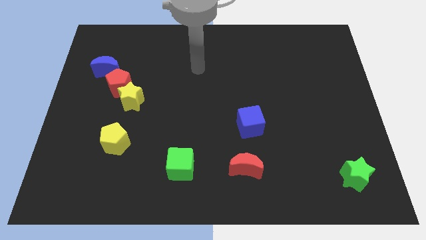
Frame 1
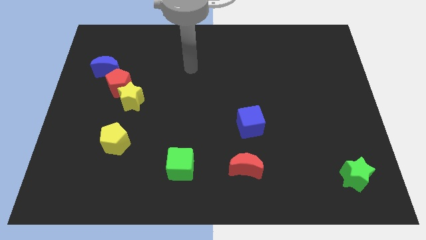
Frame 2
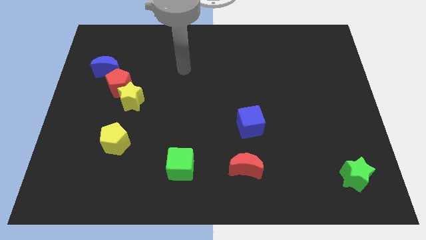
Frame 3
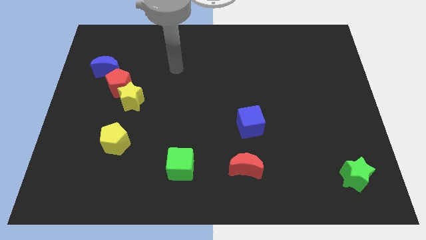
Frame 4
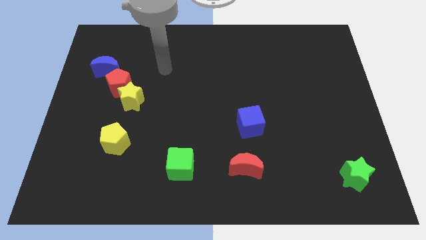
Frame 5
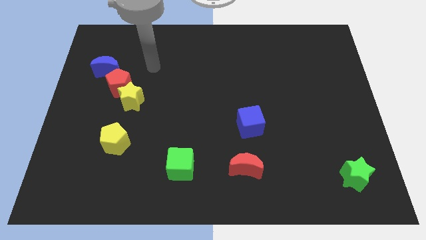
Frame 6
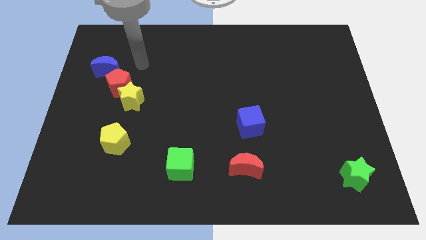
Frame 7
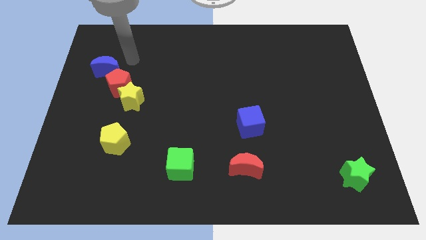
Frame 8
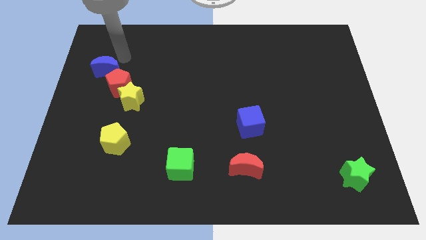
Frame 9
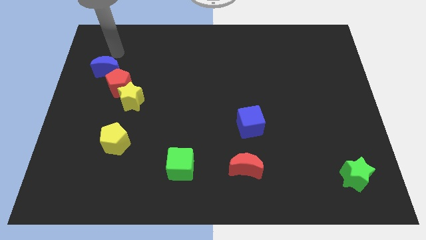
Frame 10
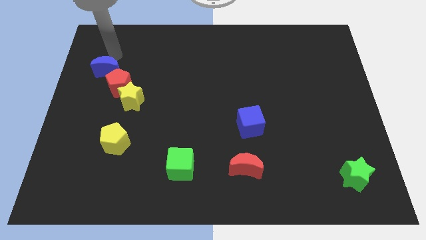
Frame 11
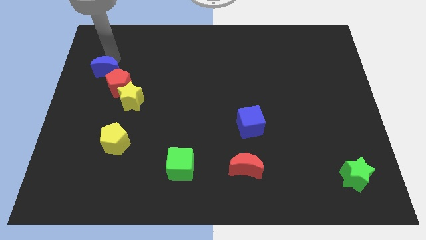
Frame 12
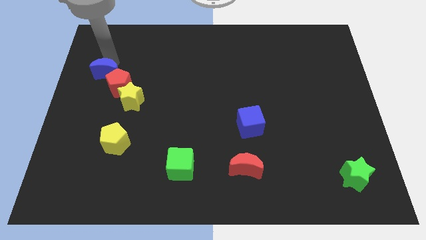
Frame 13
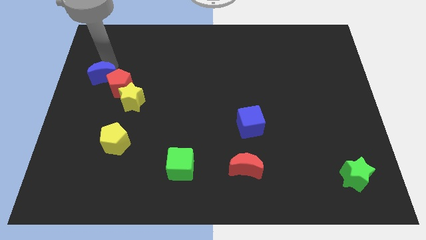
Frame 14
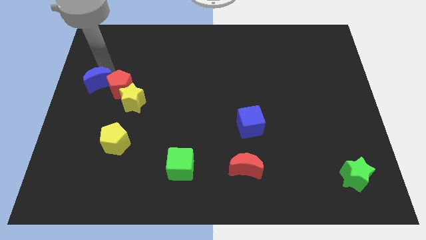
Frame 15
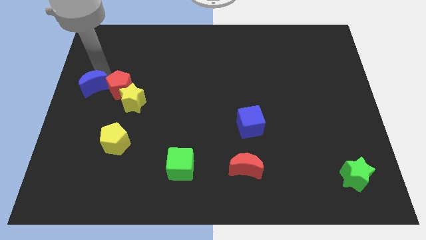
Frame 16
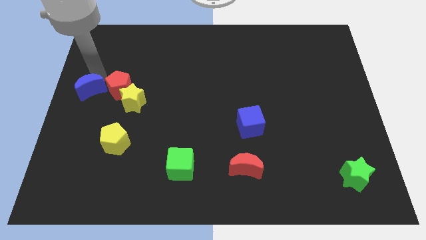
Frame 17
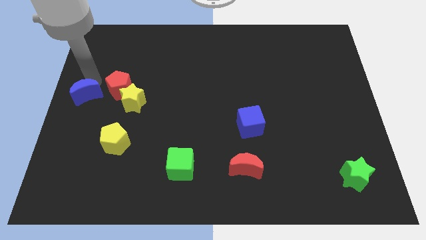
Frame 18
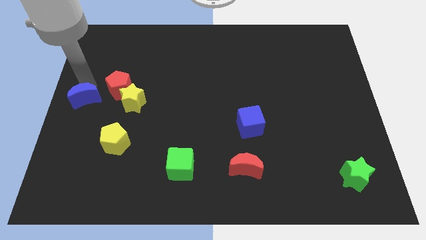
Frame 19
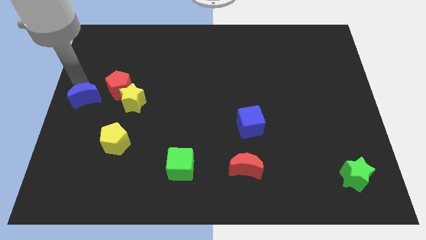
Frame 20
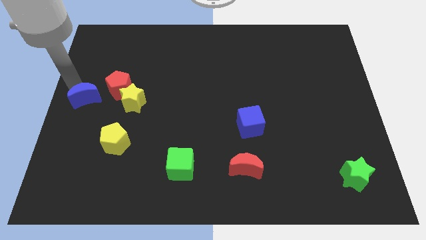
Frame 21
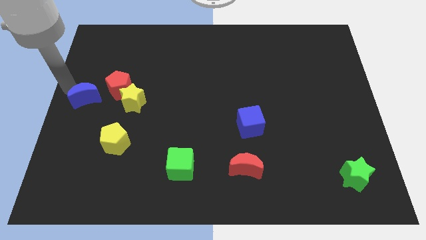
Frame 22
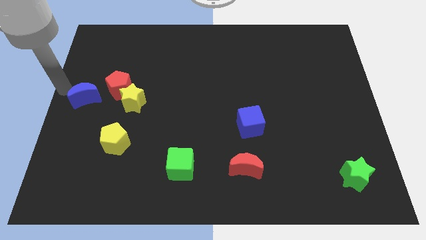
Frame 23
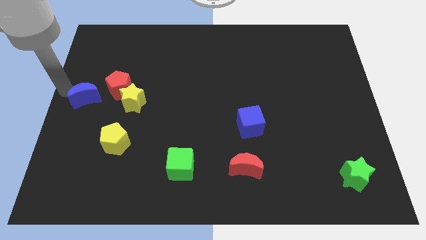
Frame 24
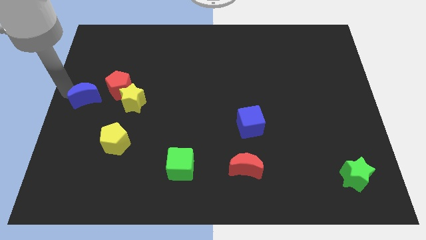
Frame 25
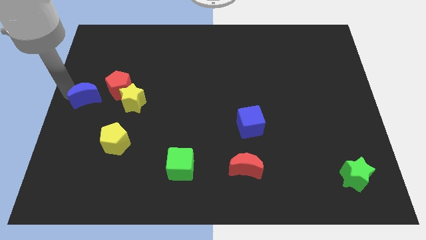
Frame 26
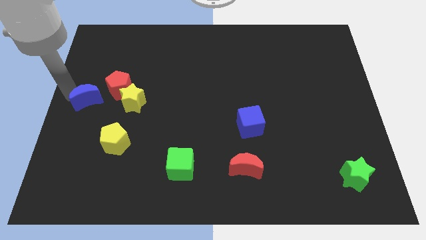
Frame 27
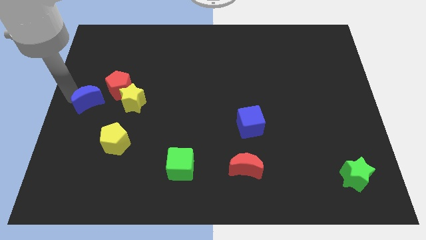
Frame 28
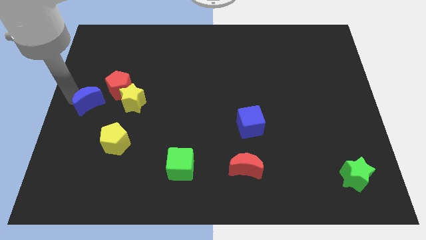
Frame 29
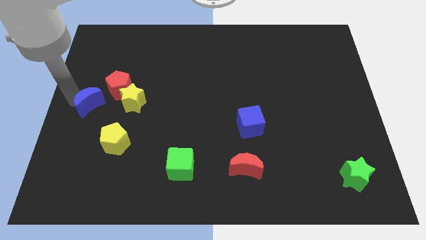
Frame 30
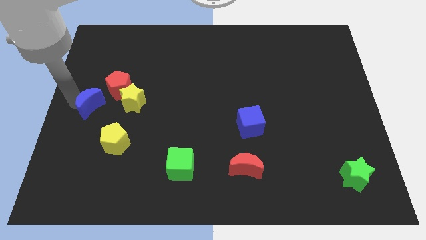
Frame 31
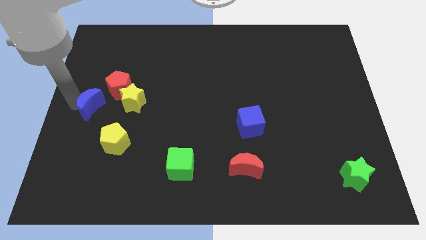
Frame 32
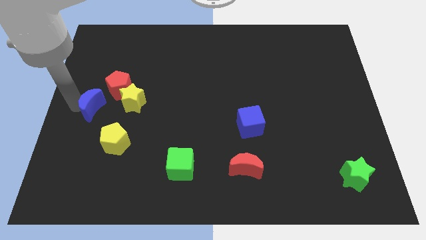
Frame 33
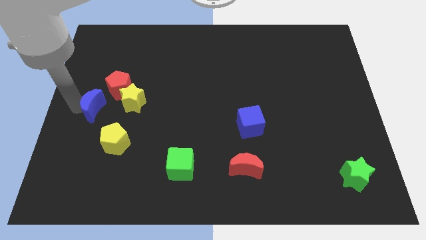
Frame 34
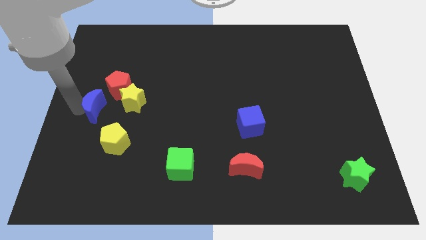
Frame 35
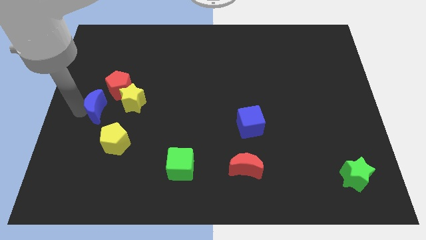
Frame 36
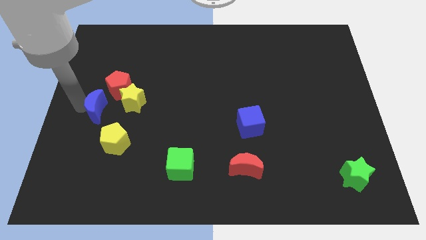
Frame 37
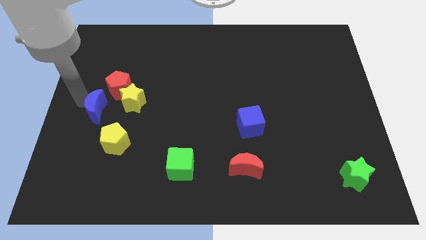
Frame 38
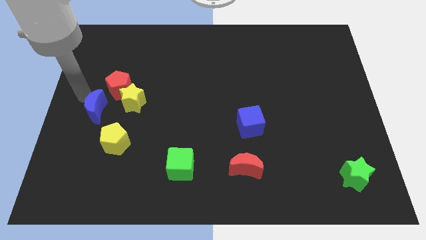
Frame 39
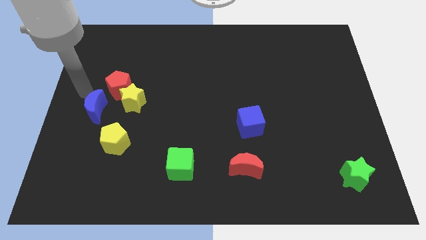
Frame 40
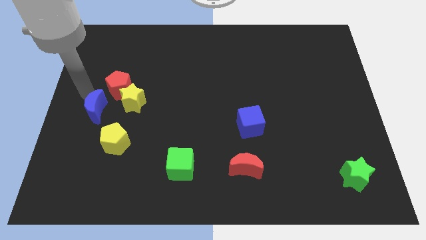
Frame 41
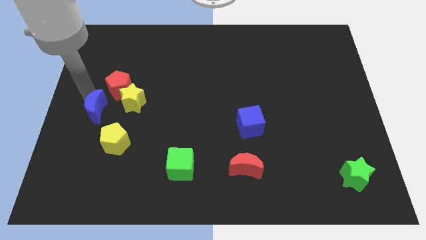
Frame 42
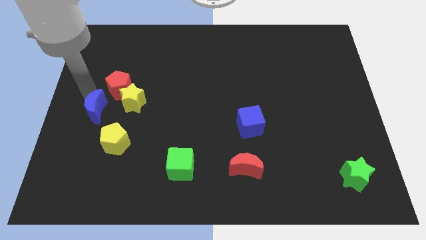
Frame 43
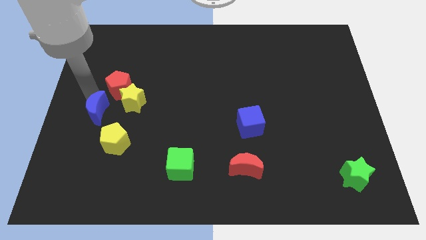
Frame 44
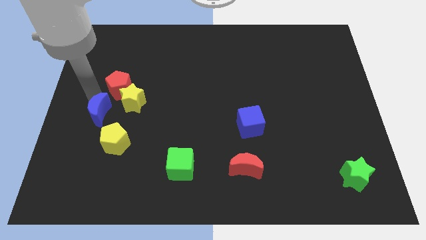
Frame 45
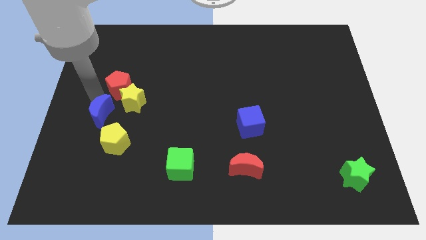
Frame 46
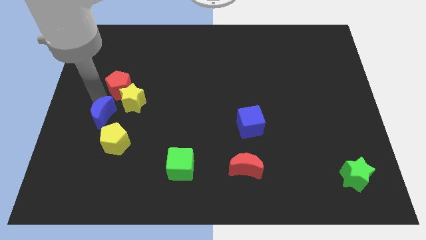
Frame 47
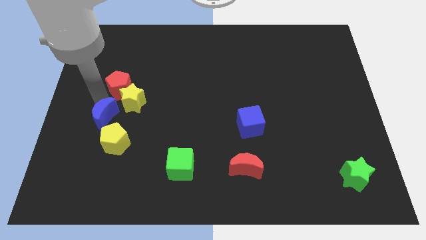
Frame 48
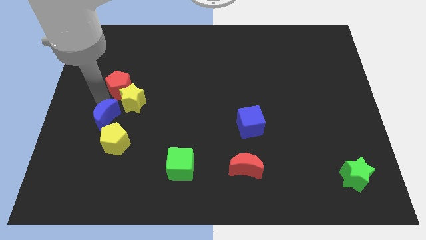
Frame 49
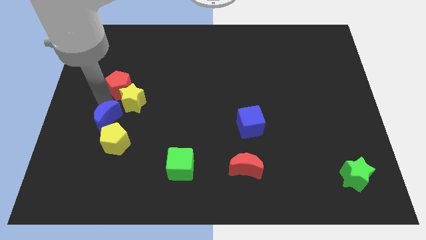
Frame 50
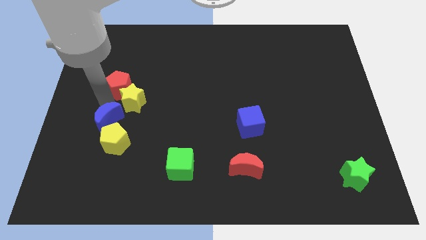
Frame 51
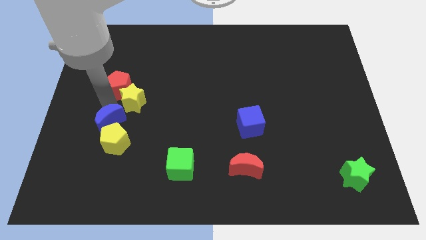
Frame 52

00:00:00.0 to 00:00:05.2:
slide the blue moon to the yellow pentagon

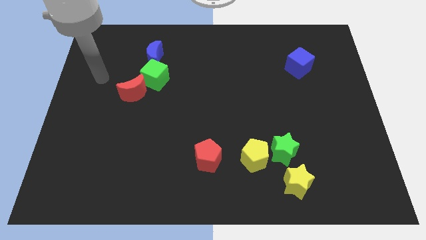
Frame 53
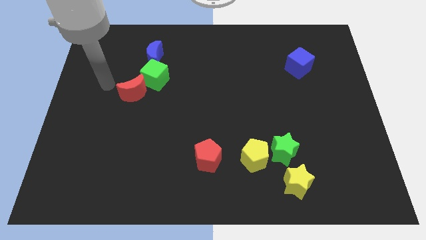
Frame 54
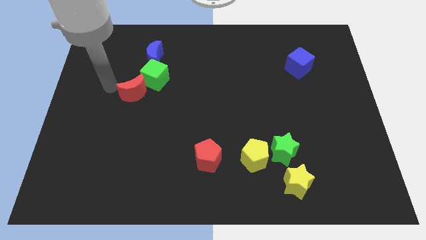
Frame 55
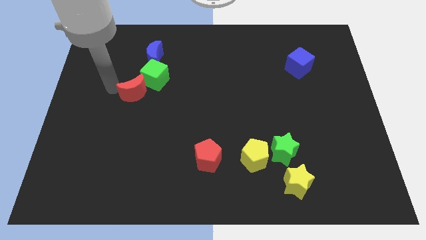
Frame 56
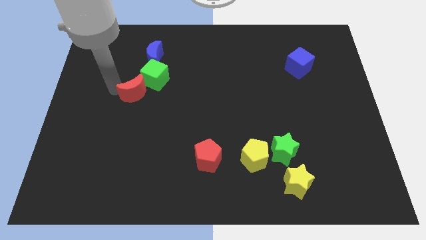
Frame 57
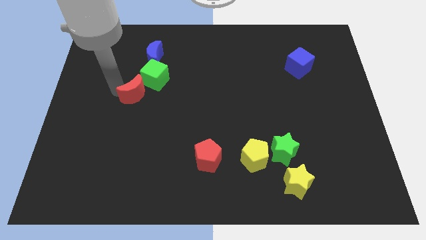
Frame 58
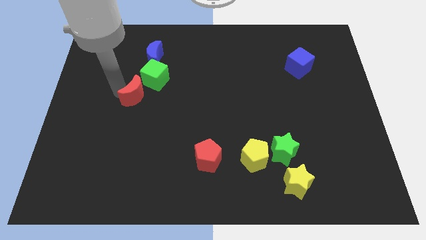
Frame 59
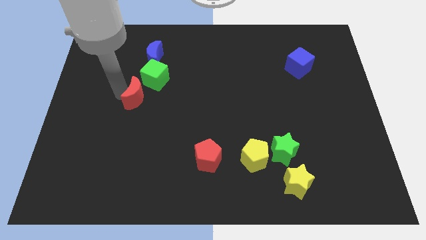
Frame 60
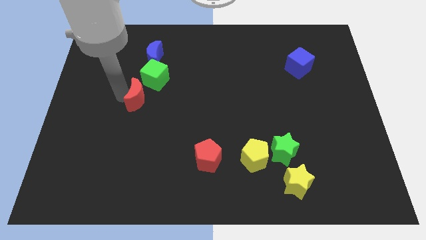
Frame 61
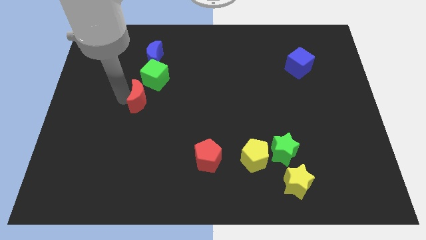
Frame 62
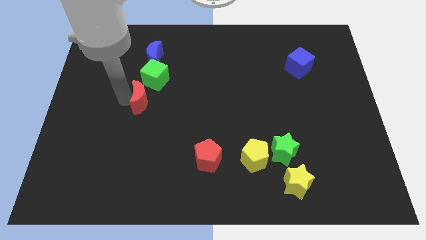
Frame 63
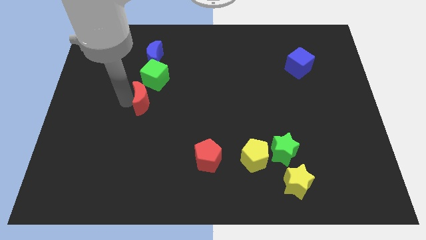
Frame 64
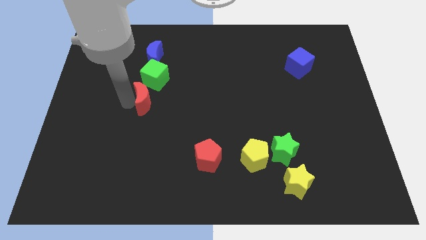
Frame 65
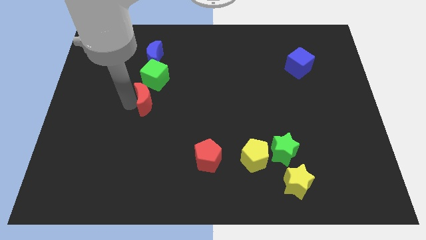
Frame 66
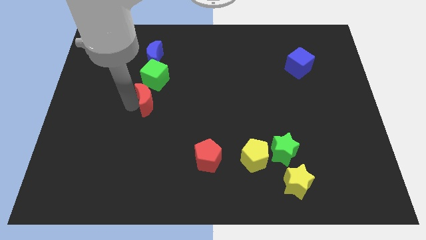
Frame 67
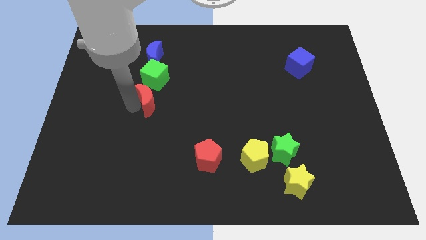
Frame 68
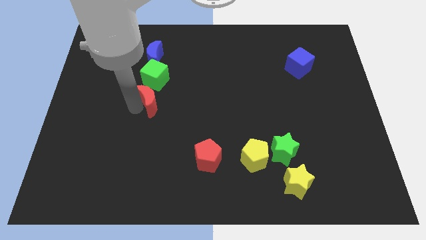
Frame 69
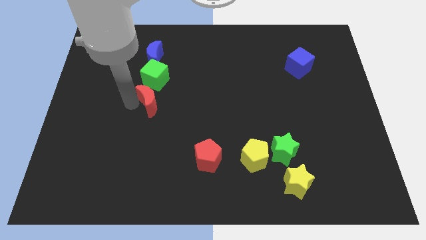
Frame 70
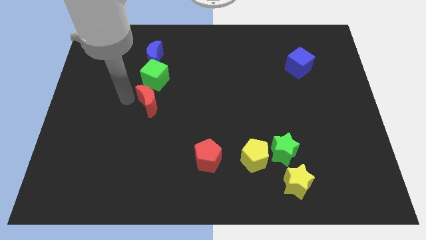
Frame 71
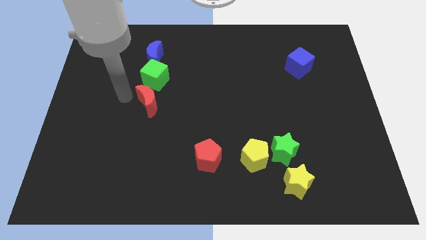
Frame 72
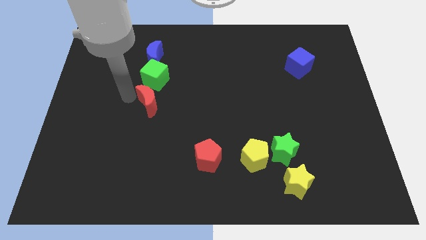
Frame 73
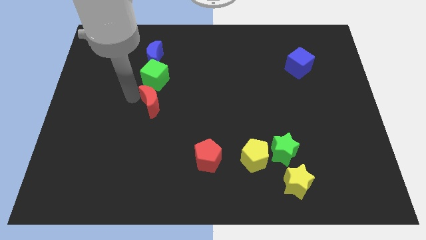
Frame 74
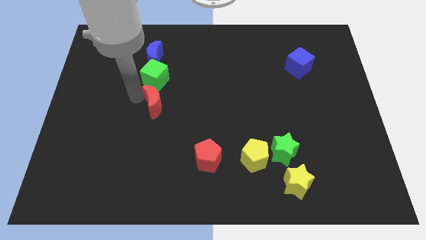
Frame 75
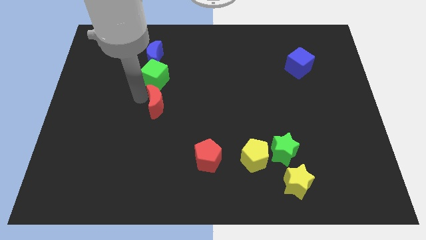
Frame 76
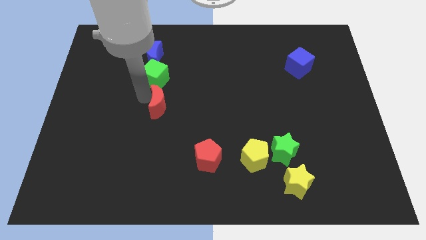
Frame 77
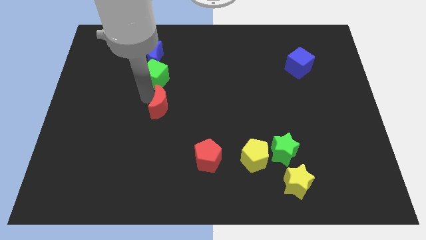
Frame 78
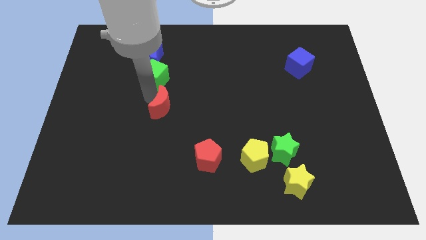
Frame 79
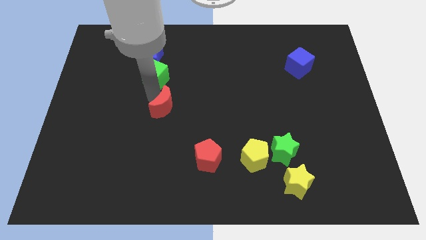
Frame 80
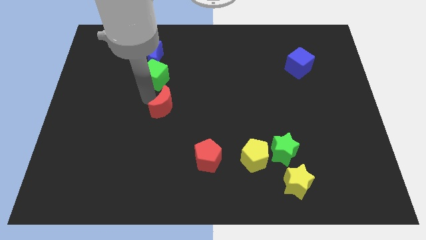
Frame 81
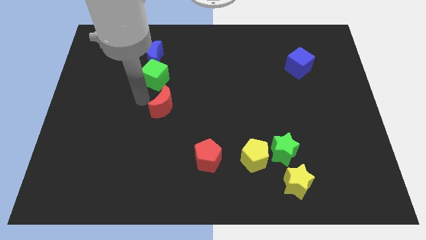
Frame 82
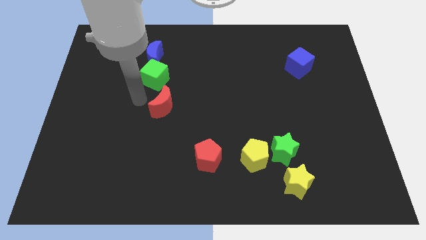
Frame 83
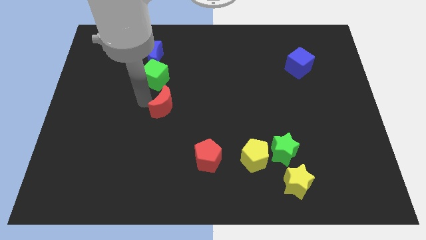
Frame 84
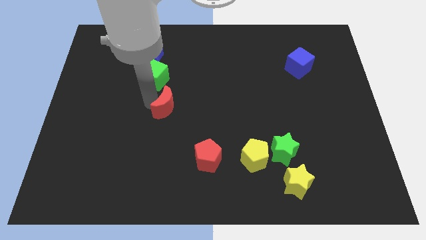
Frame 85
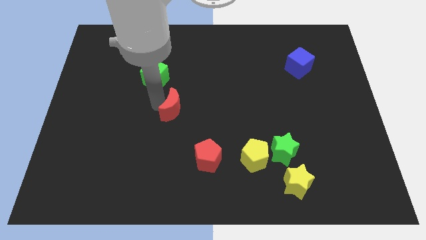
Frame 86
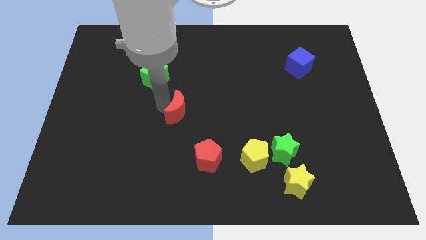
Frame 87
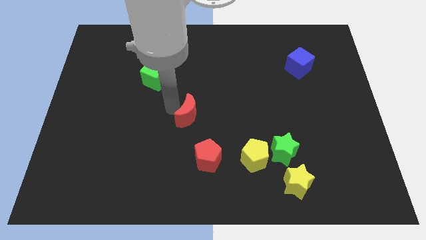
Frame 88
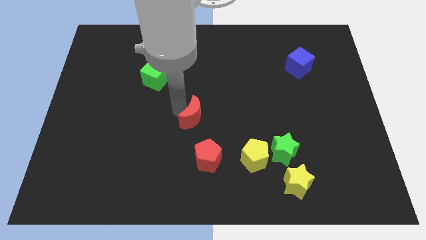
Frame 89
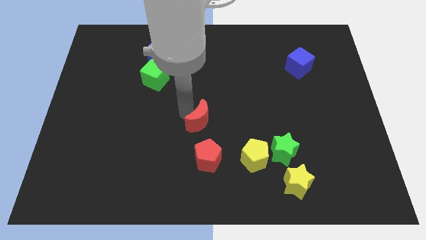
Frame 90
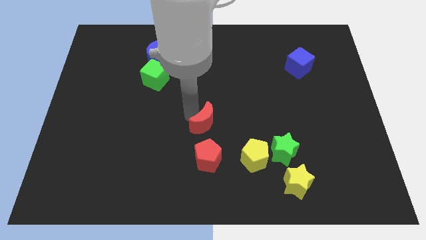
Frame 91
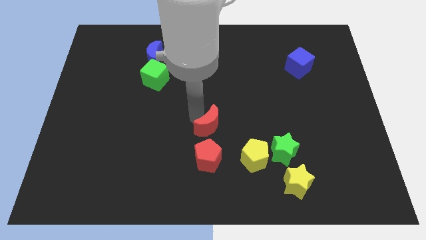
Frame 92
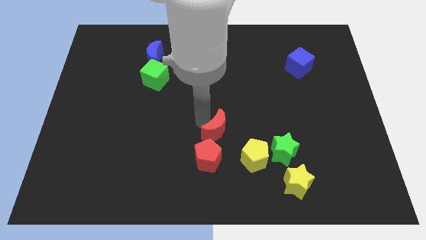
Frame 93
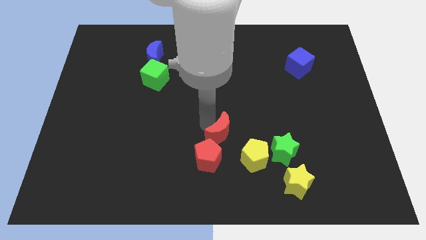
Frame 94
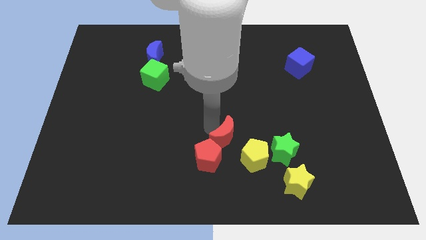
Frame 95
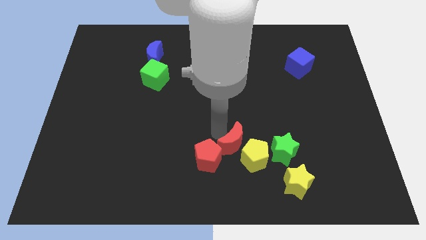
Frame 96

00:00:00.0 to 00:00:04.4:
push the red moon close to the yellow pentagon
